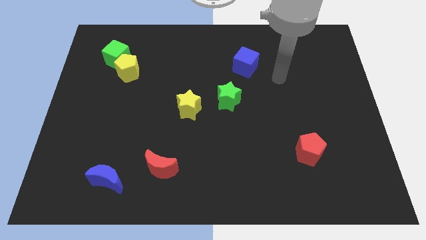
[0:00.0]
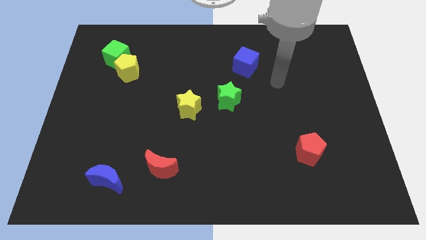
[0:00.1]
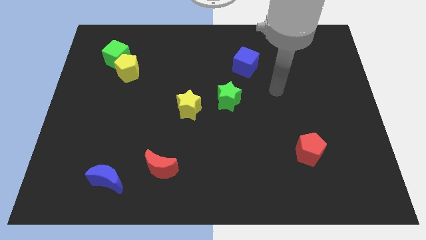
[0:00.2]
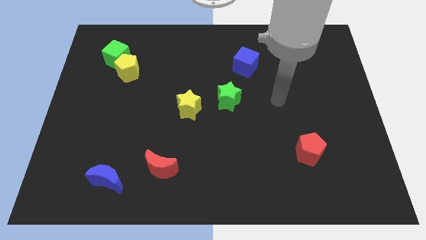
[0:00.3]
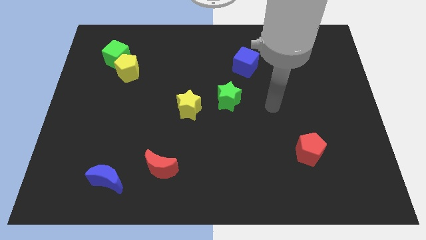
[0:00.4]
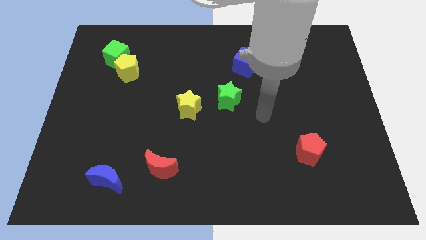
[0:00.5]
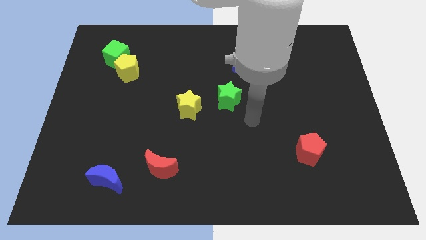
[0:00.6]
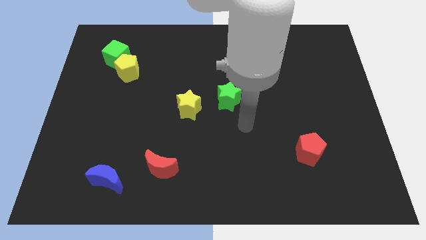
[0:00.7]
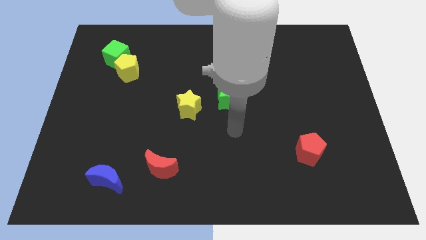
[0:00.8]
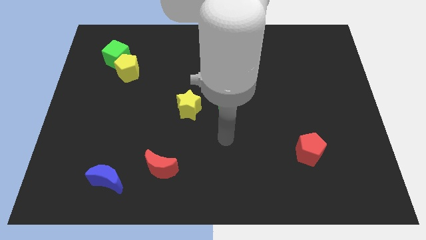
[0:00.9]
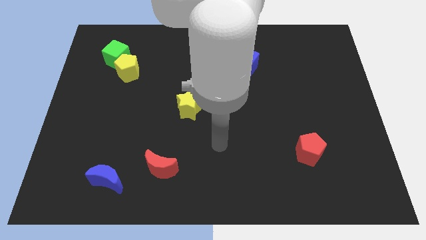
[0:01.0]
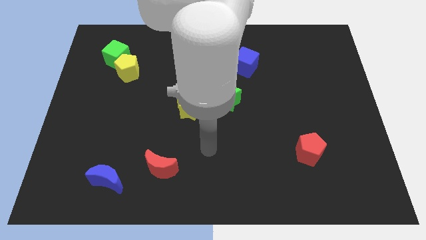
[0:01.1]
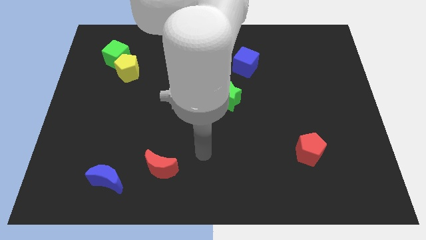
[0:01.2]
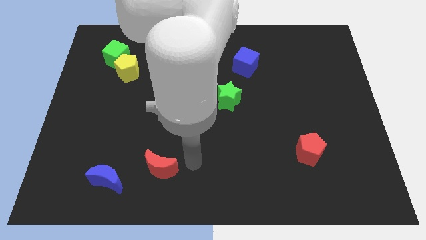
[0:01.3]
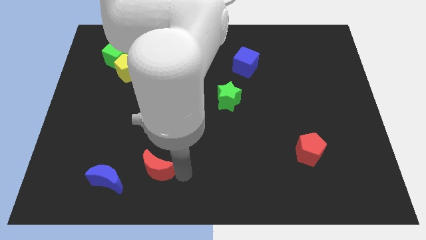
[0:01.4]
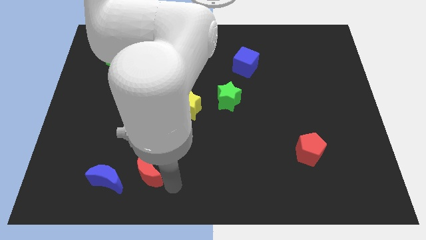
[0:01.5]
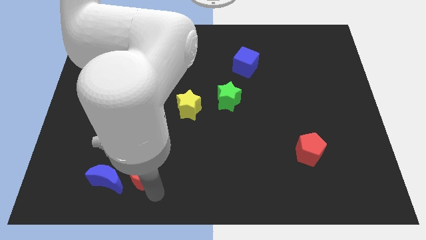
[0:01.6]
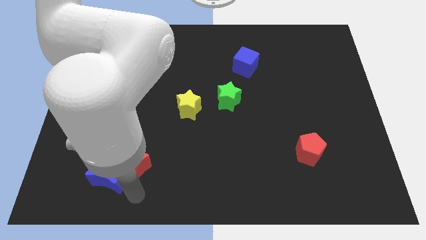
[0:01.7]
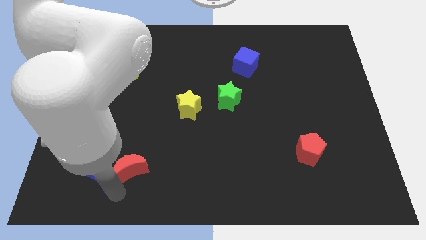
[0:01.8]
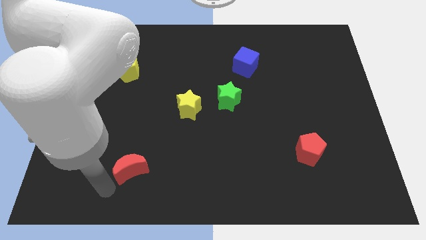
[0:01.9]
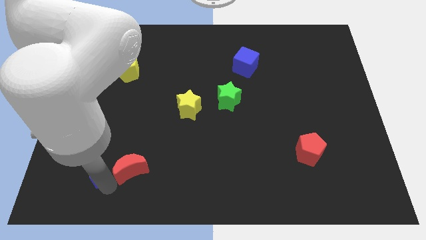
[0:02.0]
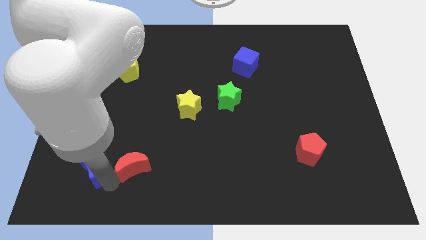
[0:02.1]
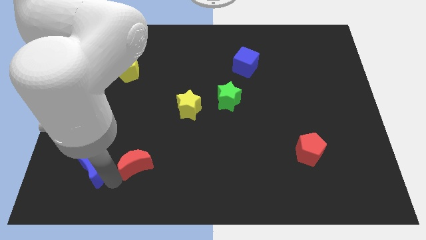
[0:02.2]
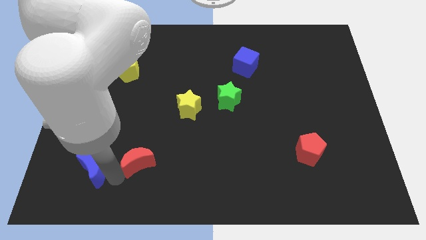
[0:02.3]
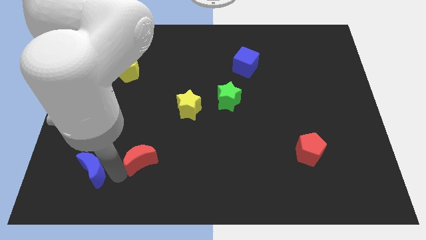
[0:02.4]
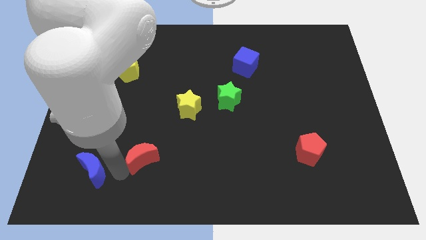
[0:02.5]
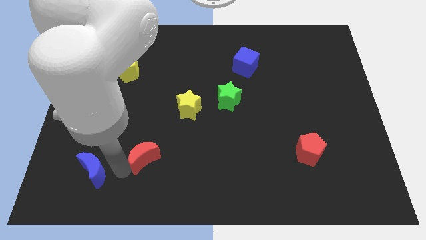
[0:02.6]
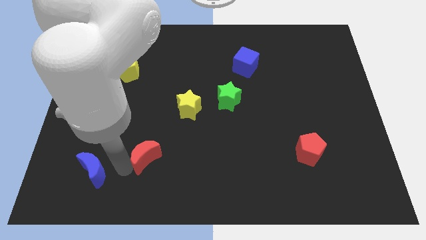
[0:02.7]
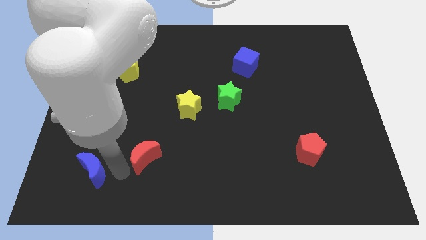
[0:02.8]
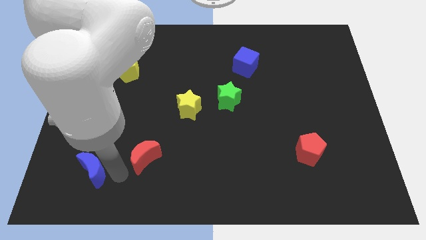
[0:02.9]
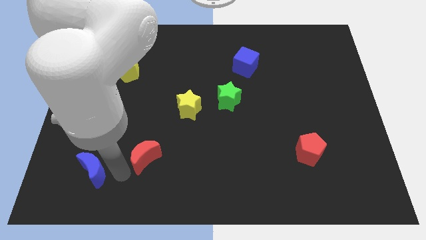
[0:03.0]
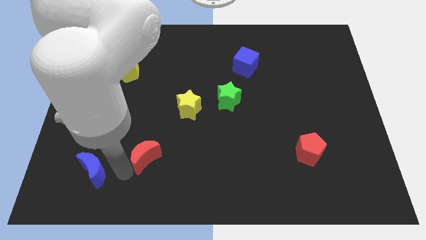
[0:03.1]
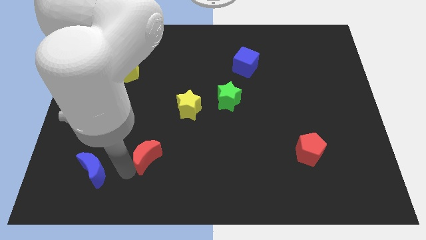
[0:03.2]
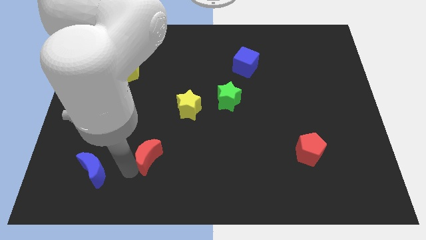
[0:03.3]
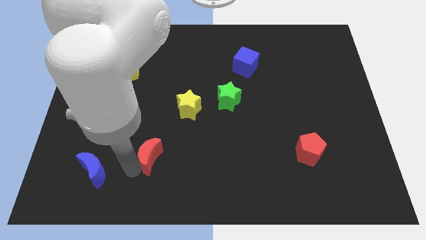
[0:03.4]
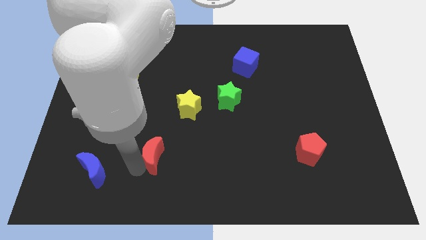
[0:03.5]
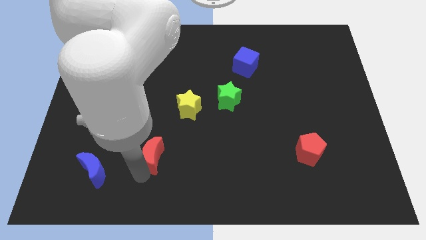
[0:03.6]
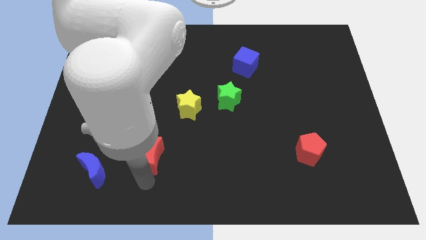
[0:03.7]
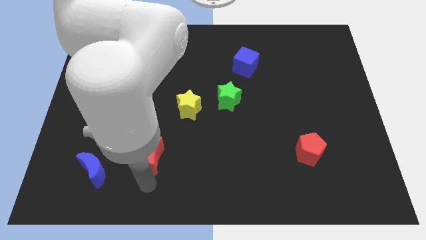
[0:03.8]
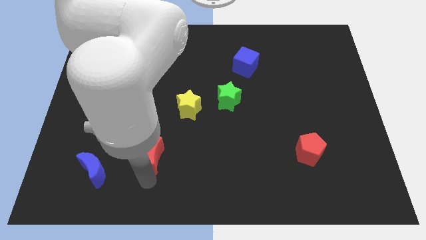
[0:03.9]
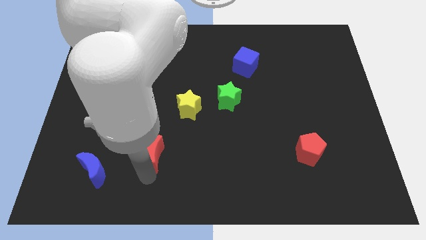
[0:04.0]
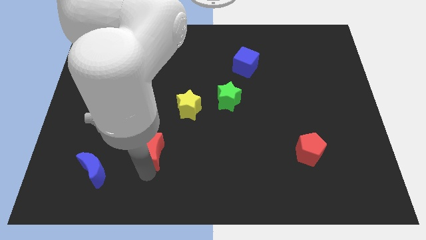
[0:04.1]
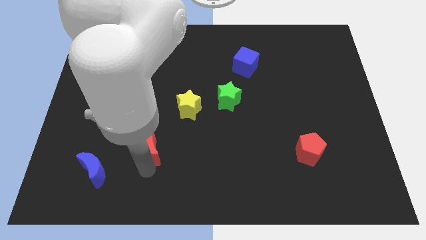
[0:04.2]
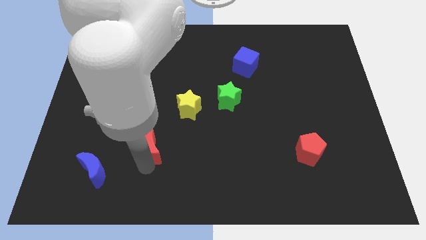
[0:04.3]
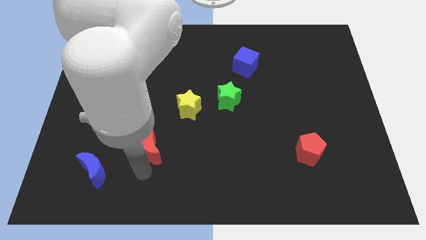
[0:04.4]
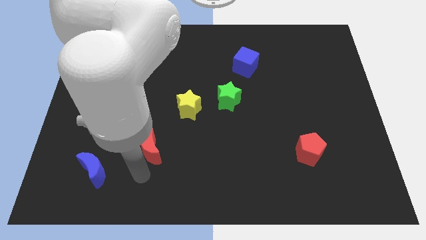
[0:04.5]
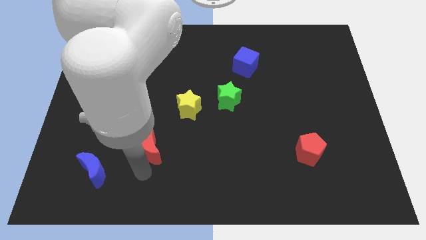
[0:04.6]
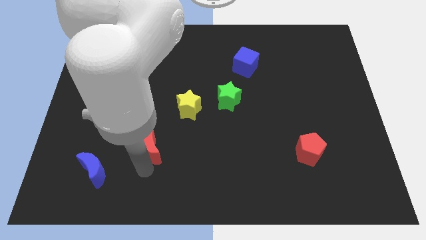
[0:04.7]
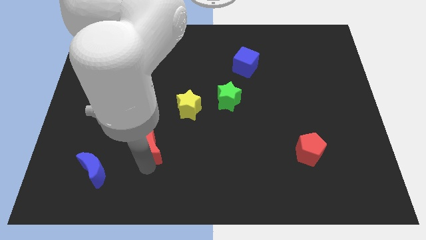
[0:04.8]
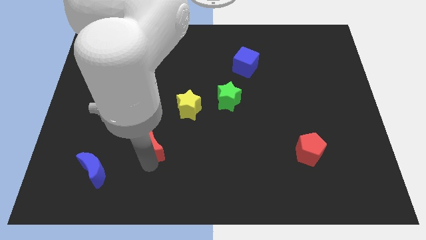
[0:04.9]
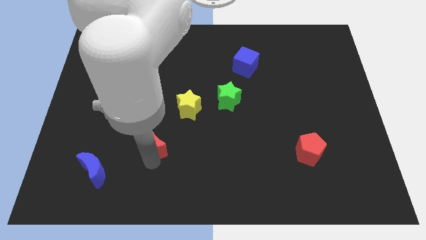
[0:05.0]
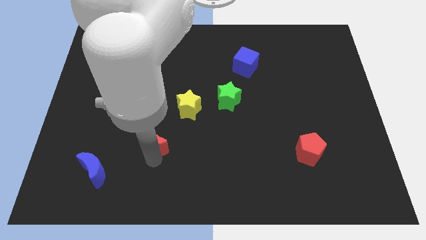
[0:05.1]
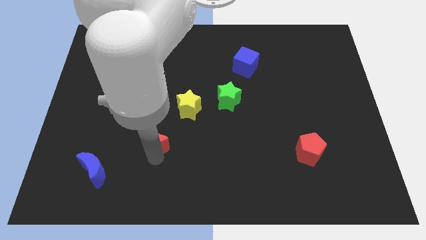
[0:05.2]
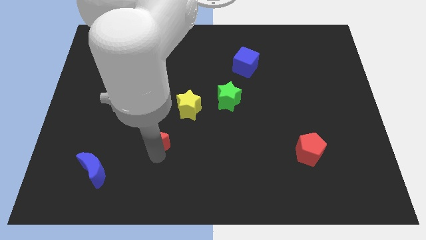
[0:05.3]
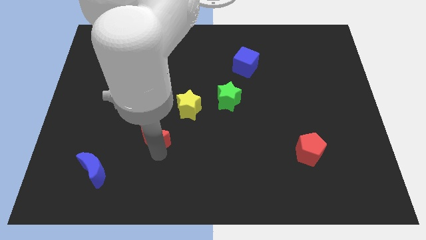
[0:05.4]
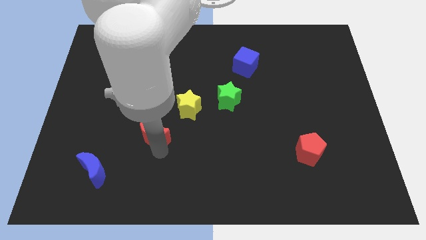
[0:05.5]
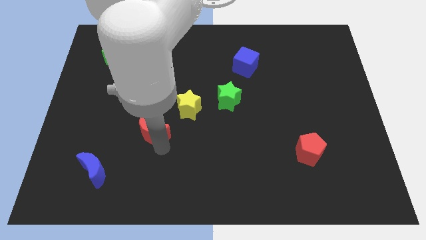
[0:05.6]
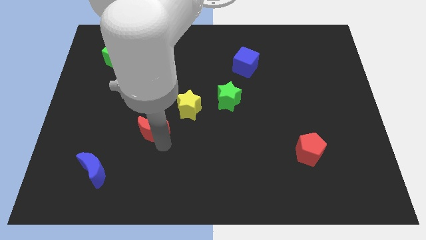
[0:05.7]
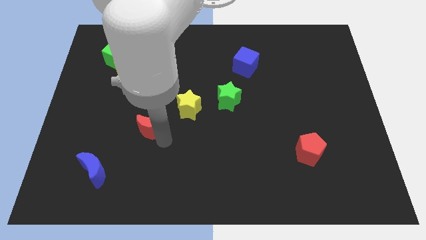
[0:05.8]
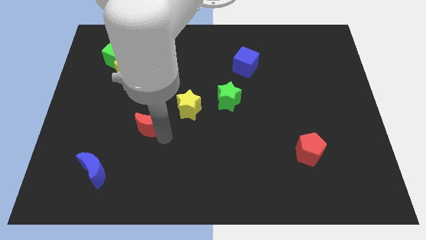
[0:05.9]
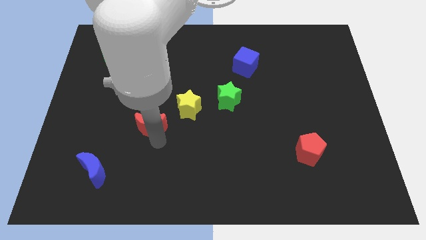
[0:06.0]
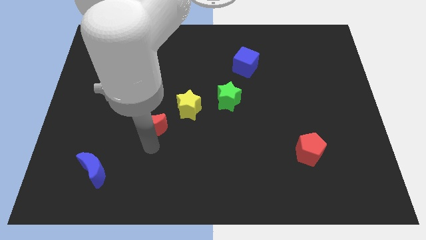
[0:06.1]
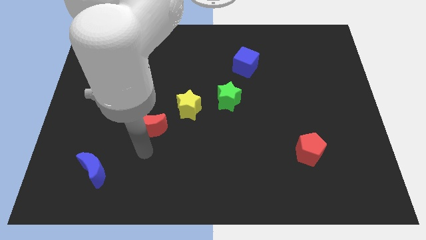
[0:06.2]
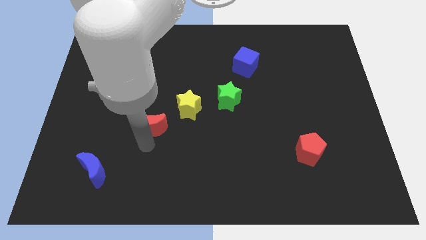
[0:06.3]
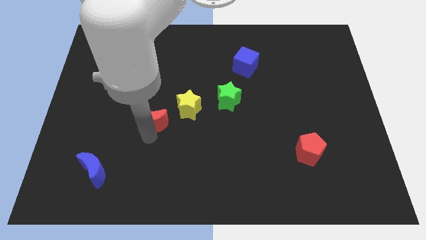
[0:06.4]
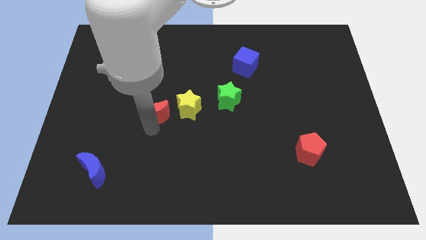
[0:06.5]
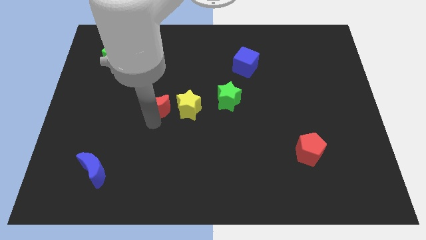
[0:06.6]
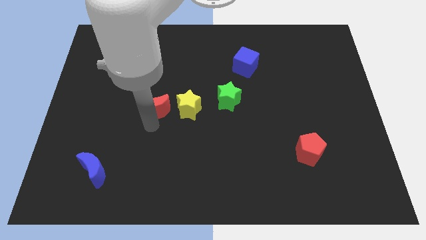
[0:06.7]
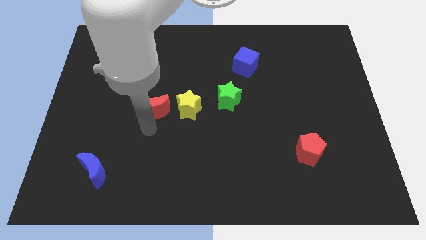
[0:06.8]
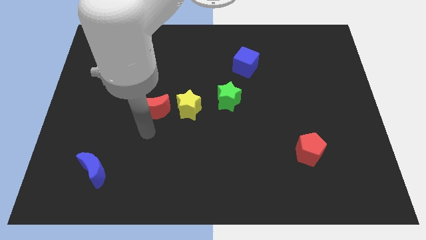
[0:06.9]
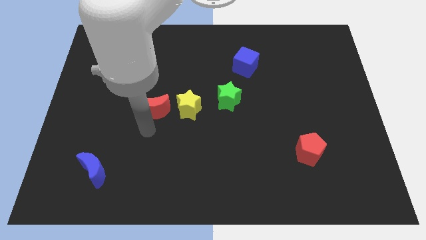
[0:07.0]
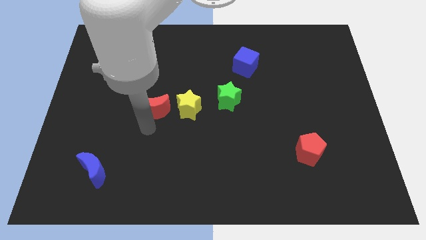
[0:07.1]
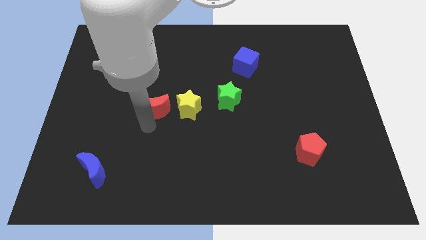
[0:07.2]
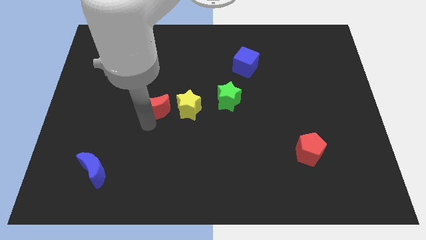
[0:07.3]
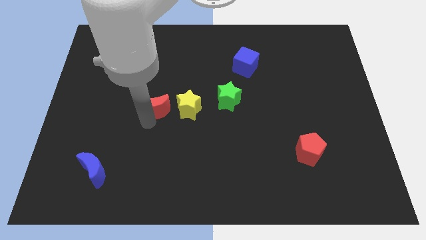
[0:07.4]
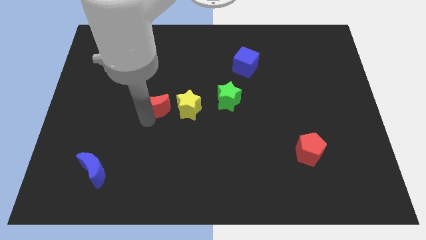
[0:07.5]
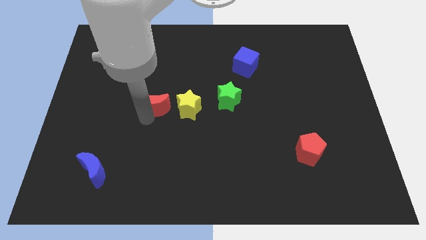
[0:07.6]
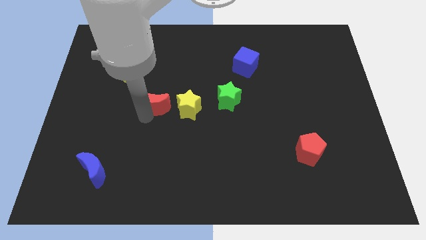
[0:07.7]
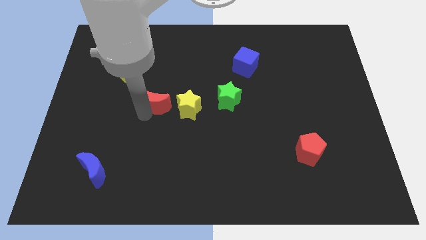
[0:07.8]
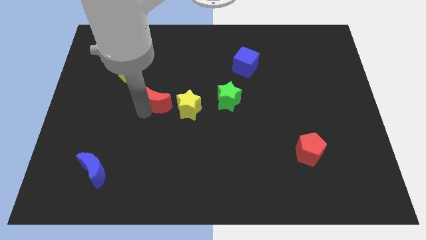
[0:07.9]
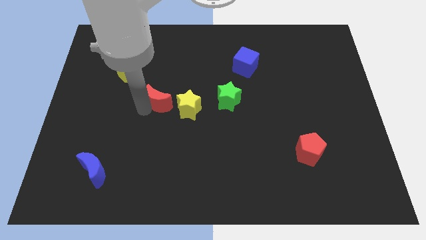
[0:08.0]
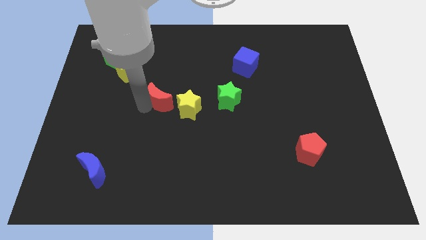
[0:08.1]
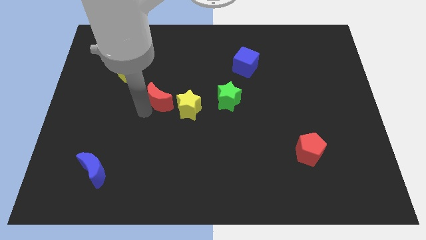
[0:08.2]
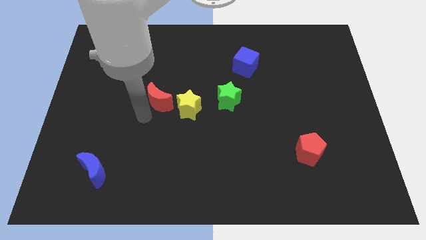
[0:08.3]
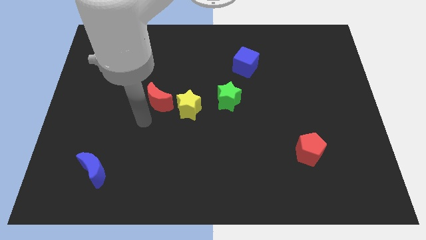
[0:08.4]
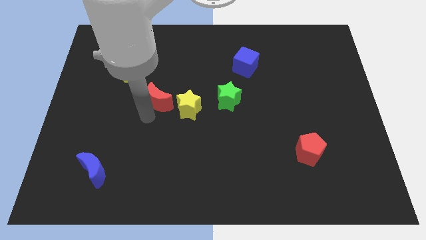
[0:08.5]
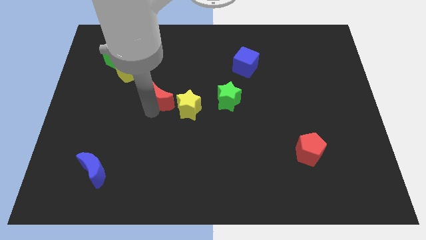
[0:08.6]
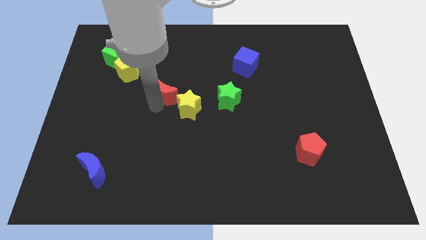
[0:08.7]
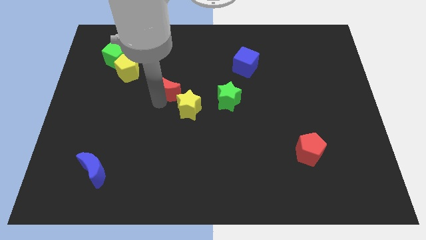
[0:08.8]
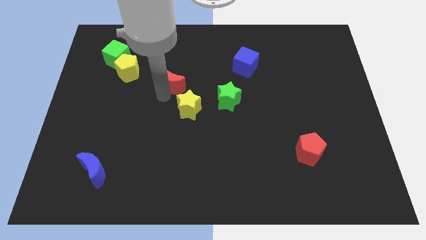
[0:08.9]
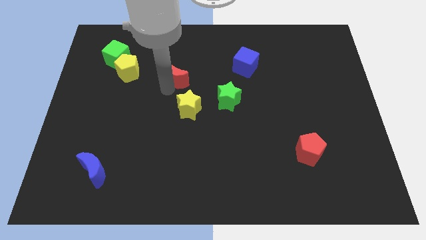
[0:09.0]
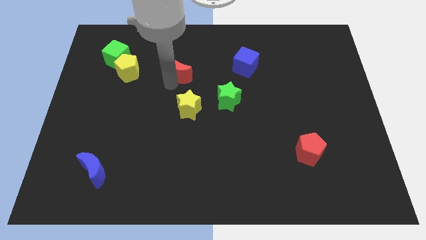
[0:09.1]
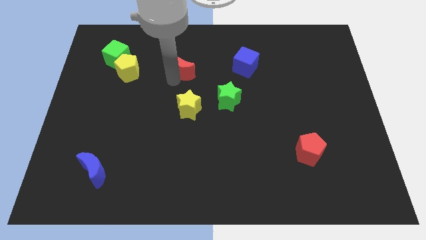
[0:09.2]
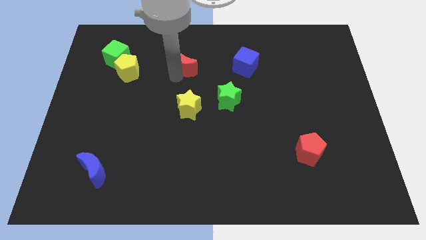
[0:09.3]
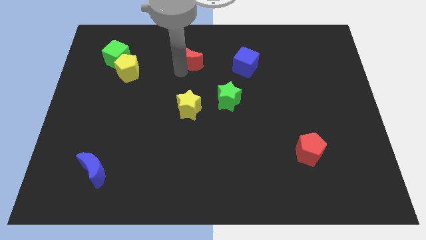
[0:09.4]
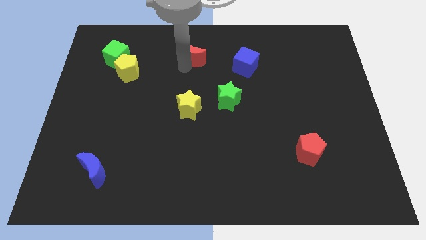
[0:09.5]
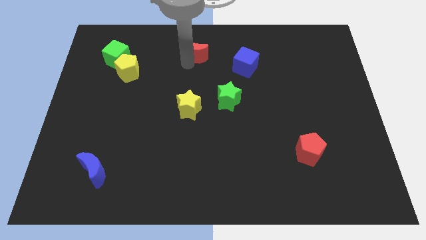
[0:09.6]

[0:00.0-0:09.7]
put the red moon to the top side
